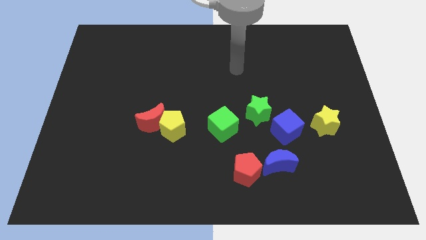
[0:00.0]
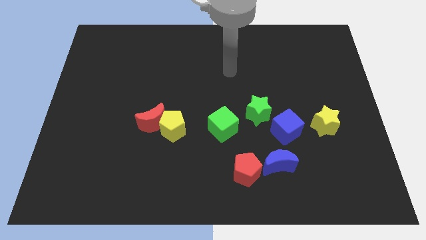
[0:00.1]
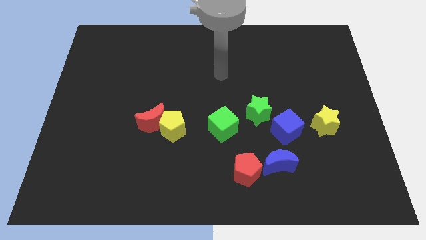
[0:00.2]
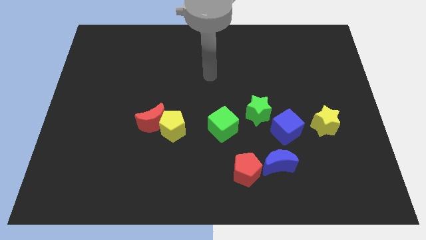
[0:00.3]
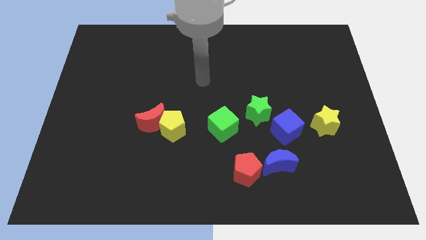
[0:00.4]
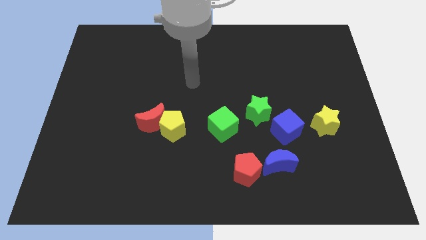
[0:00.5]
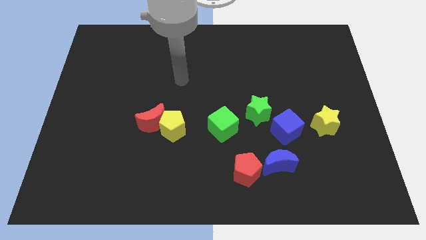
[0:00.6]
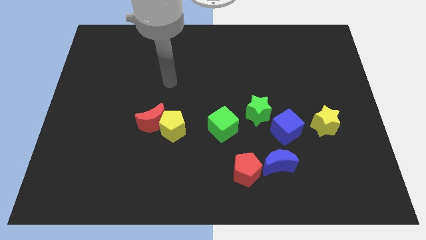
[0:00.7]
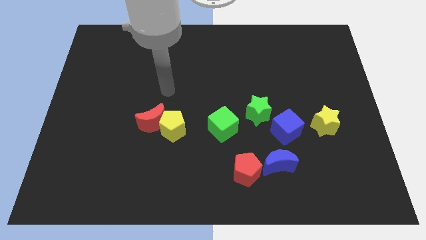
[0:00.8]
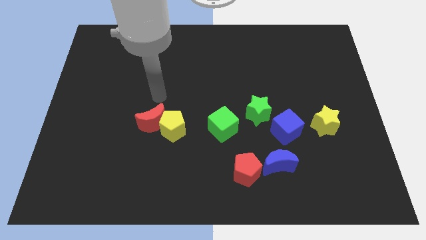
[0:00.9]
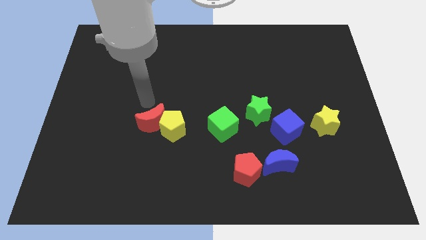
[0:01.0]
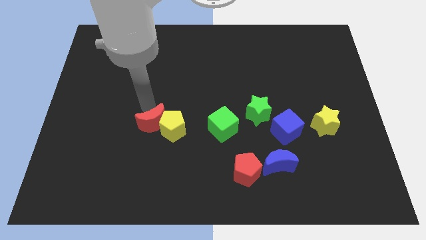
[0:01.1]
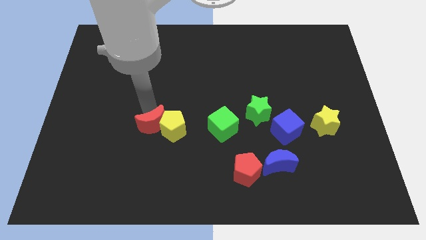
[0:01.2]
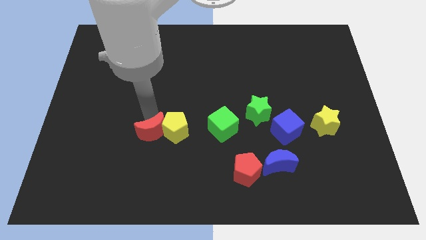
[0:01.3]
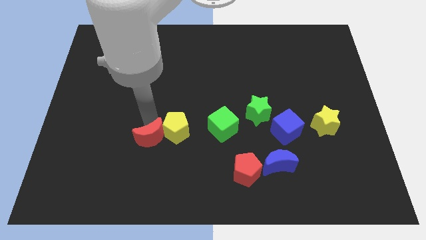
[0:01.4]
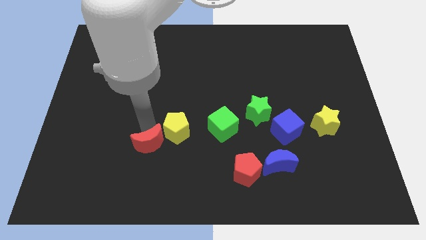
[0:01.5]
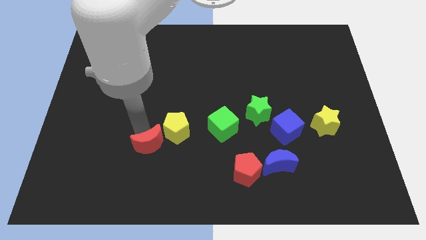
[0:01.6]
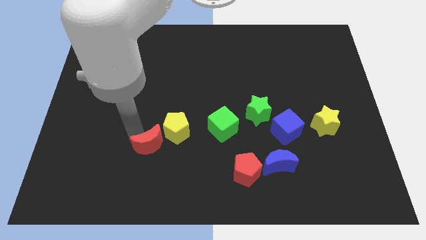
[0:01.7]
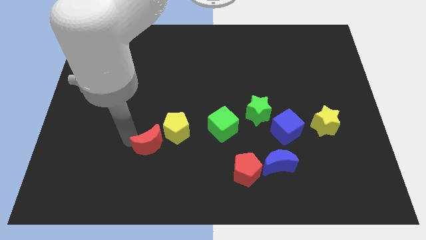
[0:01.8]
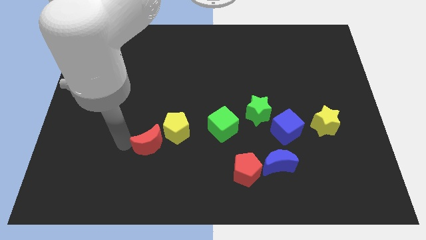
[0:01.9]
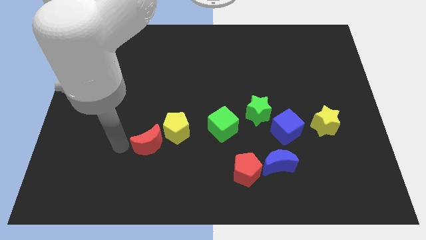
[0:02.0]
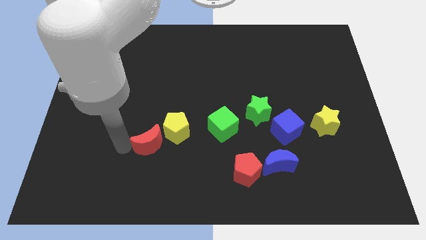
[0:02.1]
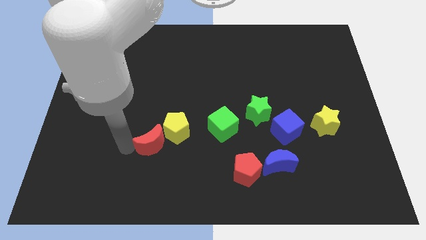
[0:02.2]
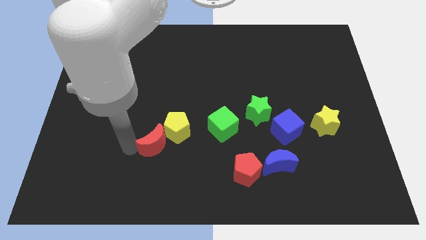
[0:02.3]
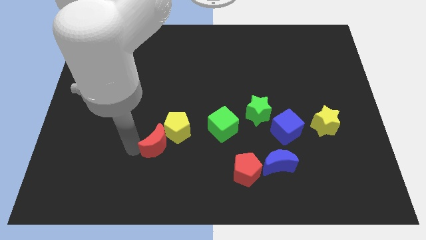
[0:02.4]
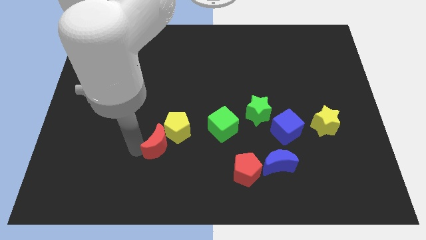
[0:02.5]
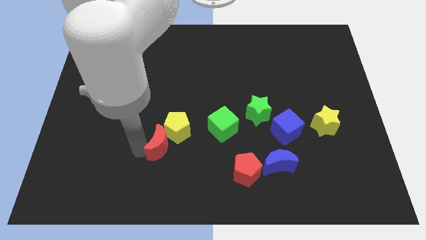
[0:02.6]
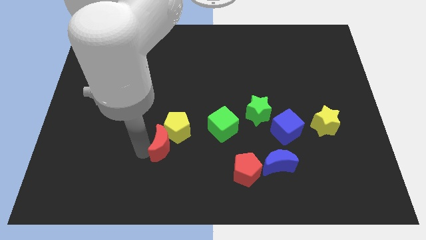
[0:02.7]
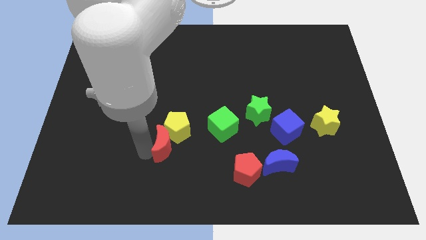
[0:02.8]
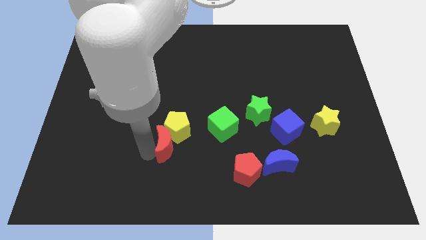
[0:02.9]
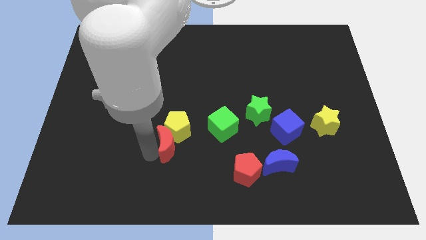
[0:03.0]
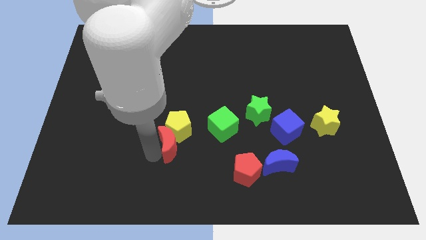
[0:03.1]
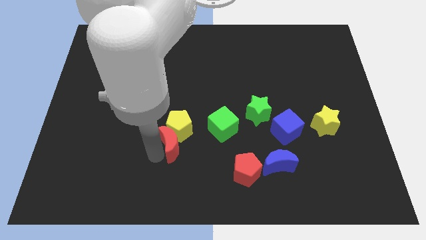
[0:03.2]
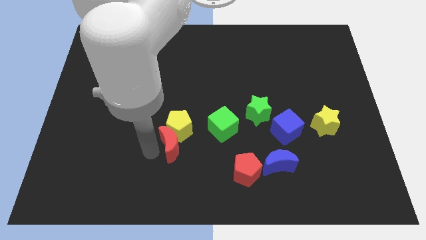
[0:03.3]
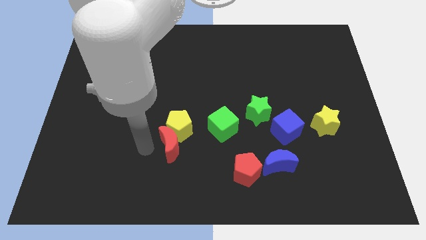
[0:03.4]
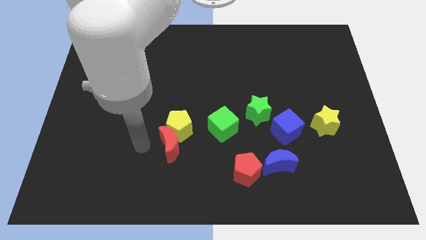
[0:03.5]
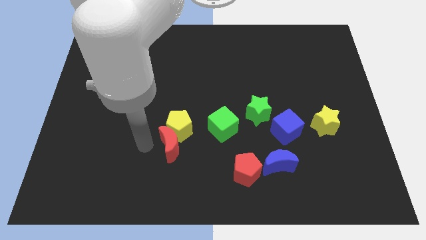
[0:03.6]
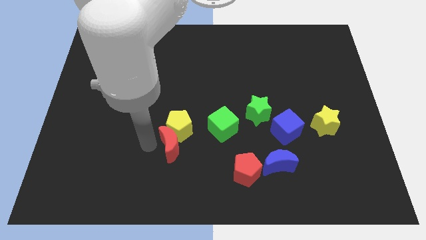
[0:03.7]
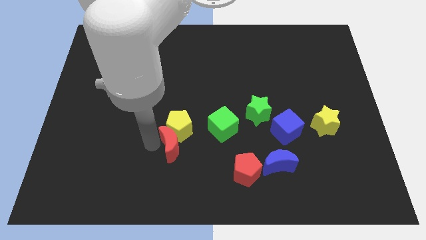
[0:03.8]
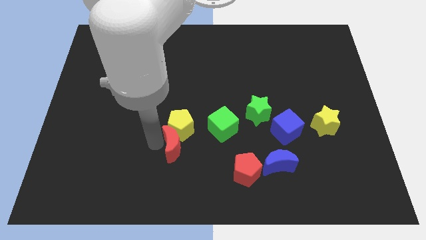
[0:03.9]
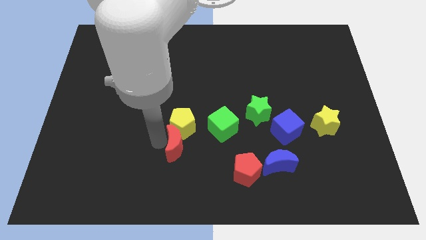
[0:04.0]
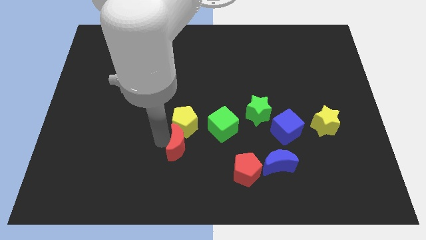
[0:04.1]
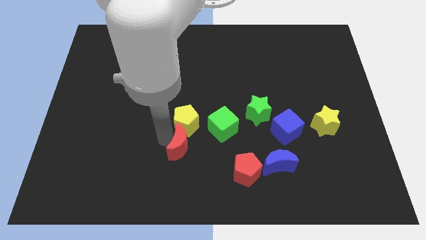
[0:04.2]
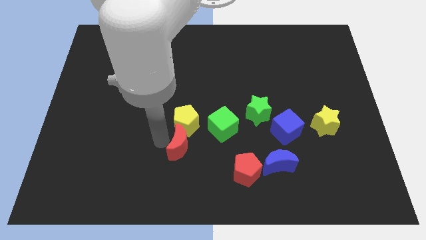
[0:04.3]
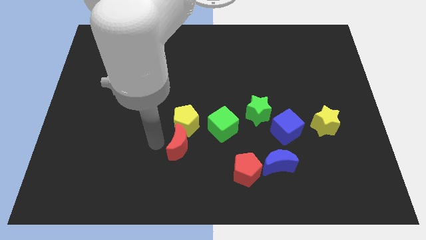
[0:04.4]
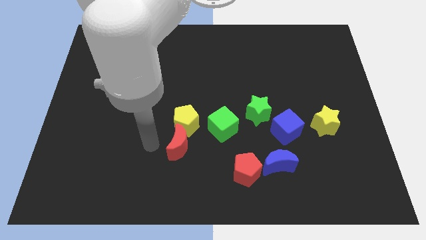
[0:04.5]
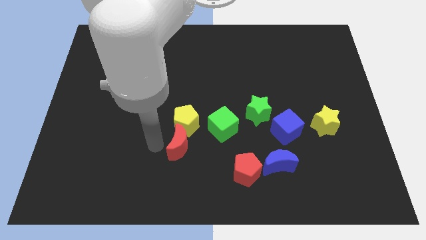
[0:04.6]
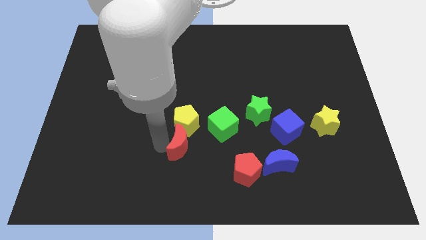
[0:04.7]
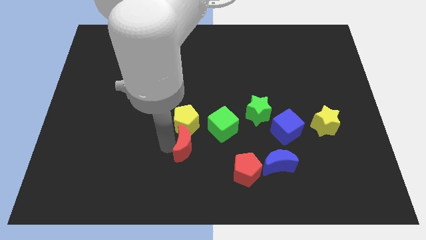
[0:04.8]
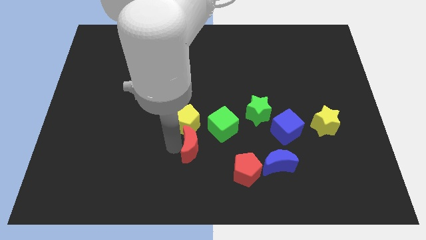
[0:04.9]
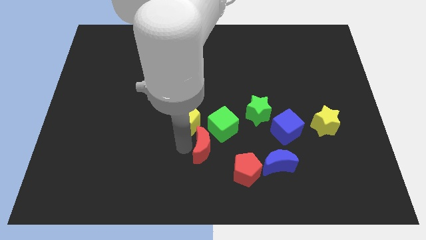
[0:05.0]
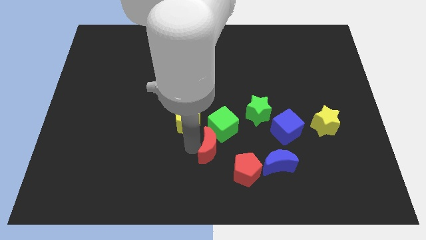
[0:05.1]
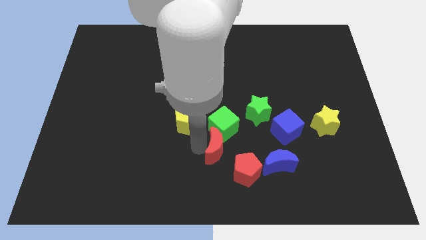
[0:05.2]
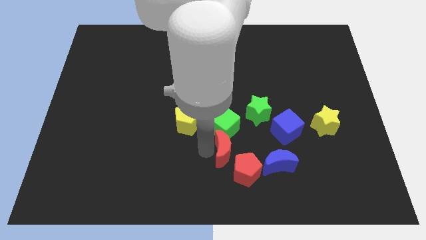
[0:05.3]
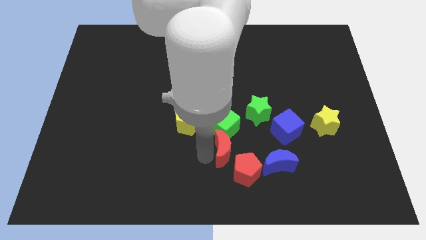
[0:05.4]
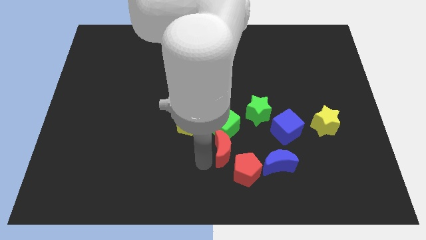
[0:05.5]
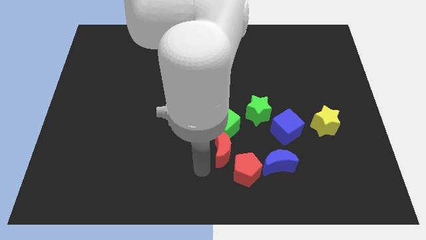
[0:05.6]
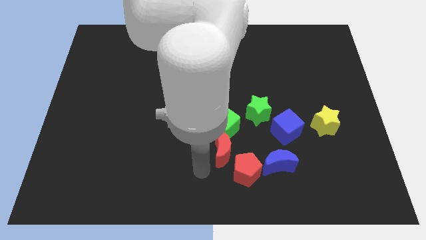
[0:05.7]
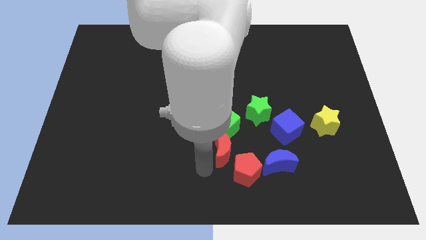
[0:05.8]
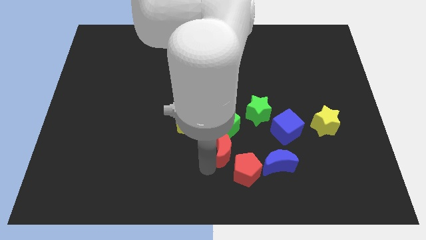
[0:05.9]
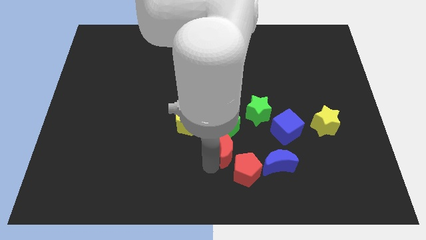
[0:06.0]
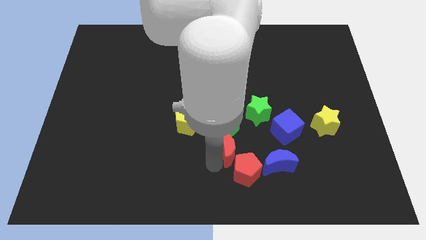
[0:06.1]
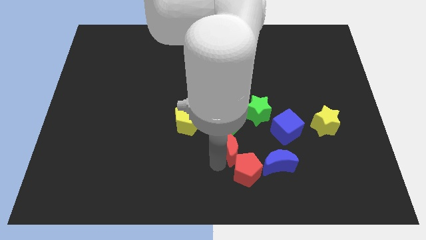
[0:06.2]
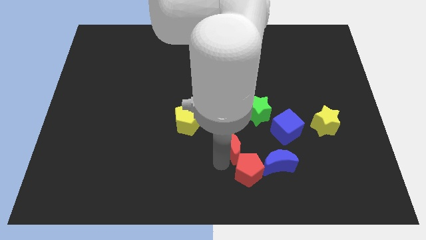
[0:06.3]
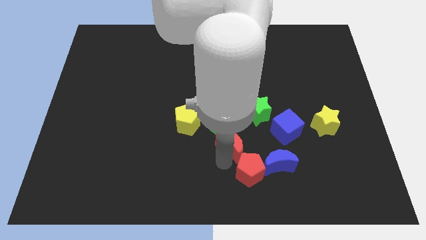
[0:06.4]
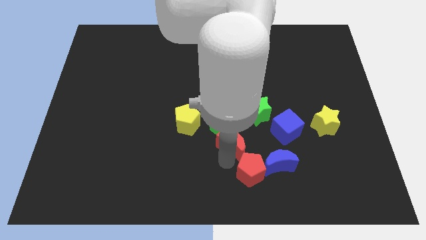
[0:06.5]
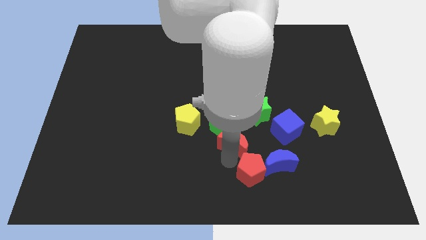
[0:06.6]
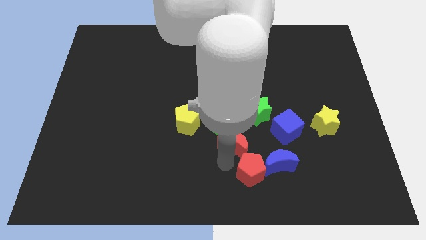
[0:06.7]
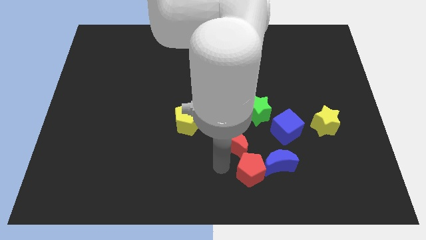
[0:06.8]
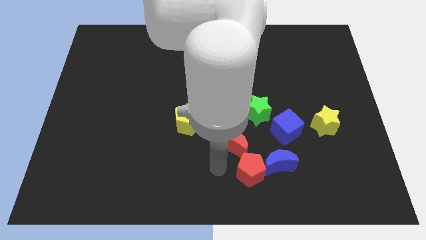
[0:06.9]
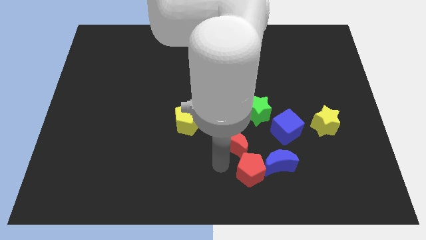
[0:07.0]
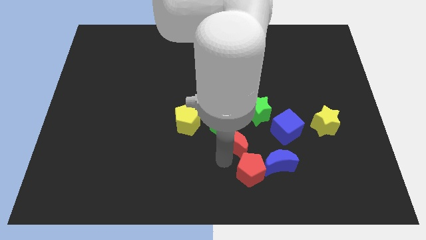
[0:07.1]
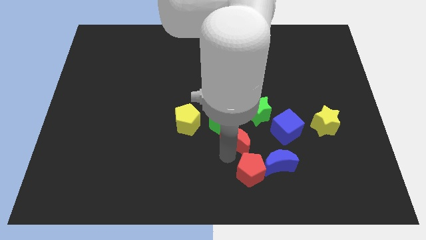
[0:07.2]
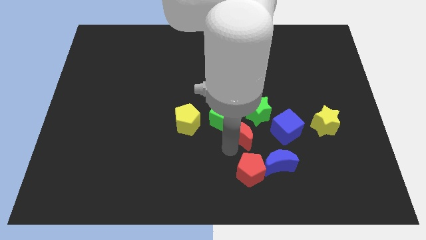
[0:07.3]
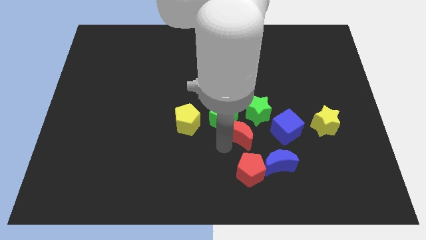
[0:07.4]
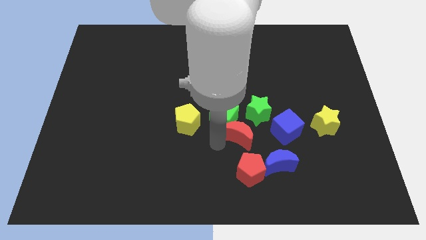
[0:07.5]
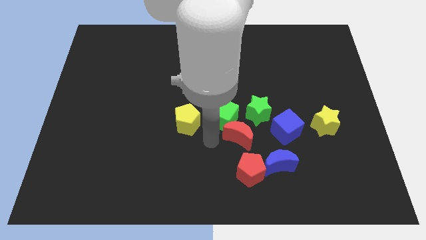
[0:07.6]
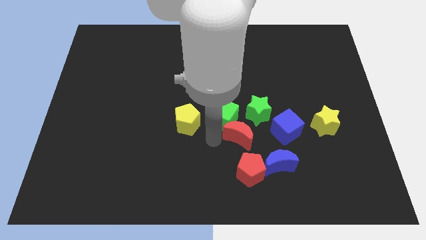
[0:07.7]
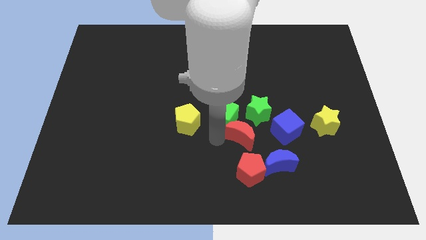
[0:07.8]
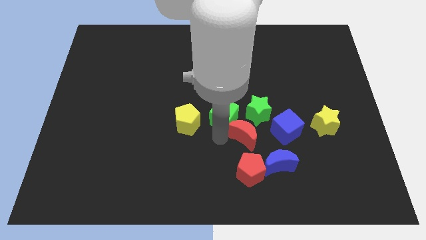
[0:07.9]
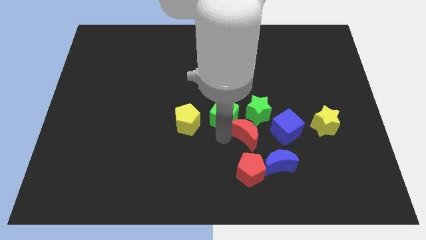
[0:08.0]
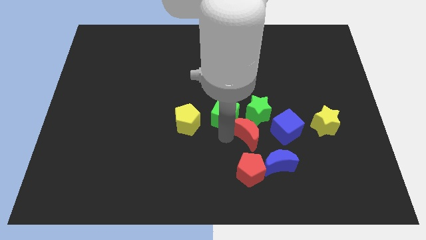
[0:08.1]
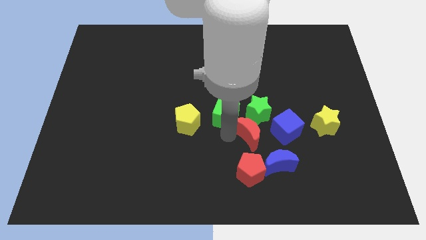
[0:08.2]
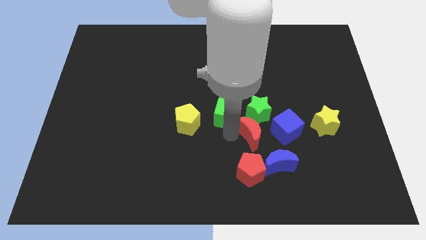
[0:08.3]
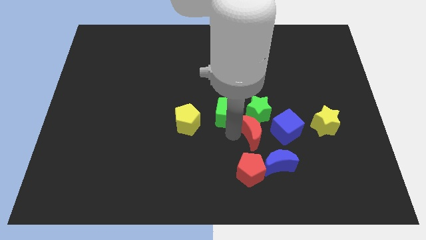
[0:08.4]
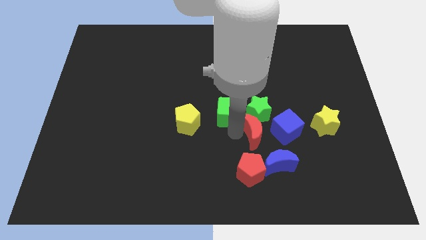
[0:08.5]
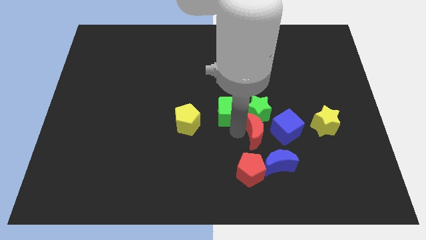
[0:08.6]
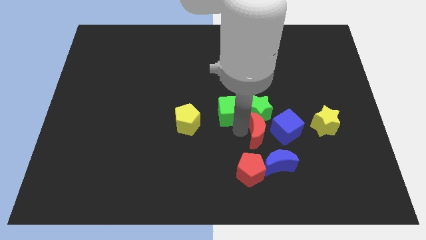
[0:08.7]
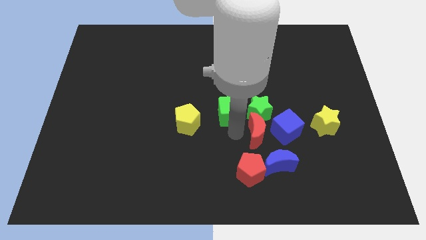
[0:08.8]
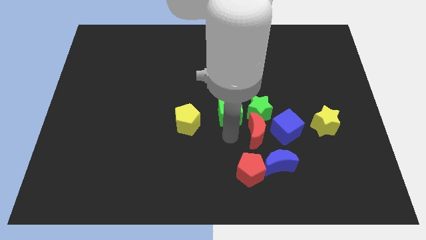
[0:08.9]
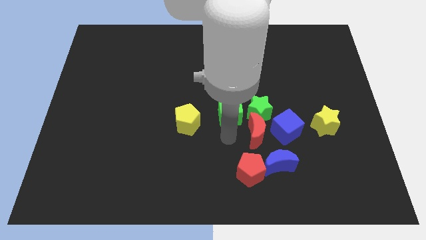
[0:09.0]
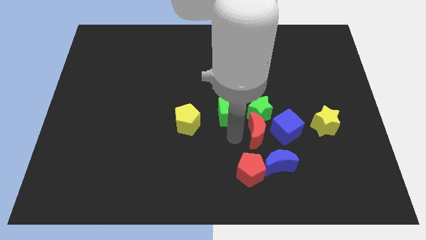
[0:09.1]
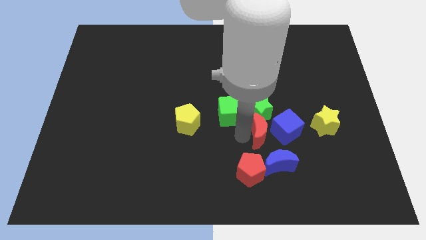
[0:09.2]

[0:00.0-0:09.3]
move the red moon next to the blue cube
